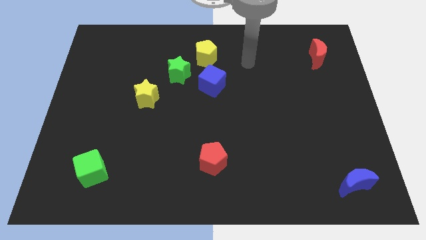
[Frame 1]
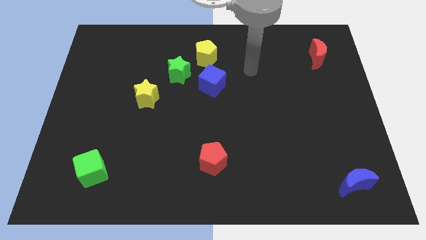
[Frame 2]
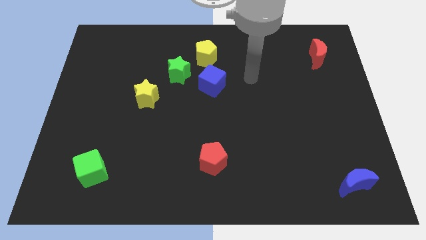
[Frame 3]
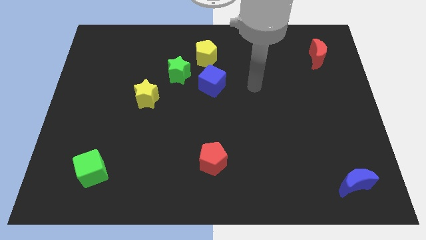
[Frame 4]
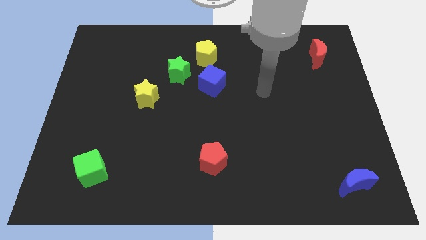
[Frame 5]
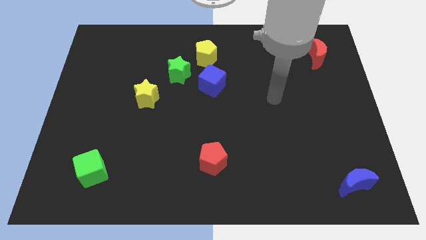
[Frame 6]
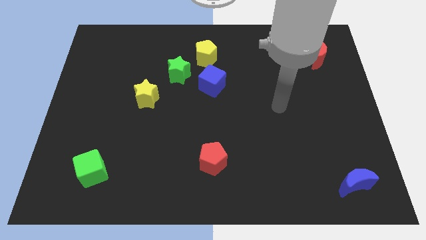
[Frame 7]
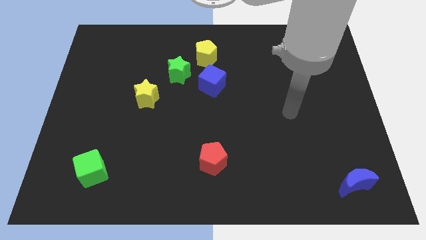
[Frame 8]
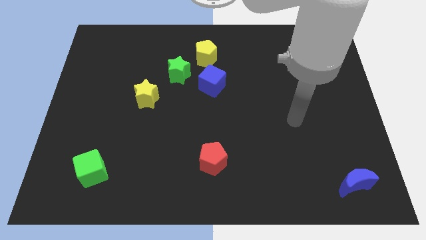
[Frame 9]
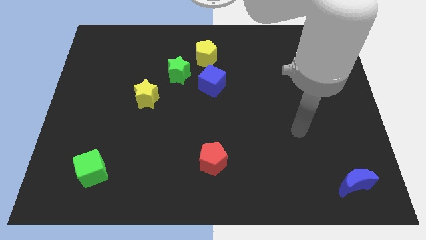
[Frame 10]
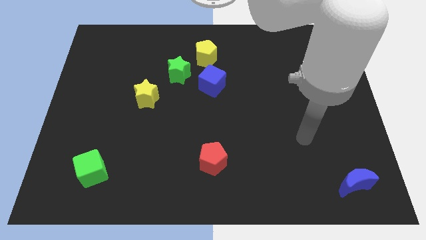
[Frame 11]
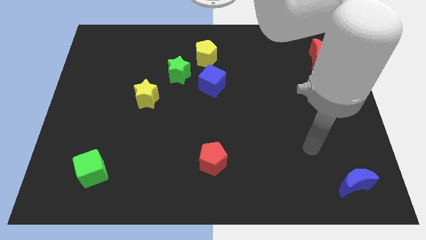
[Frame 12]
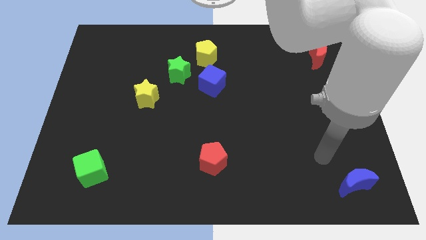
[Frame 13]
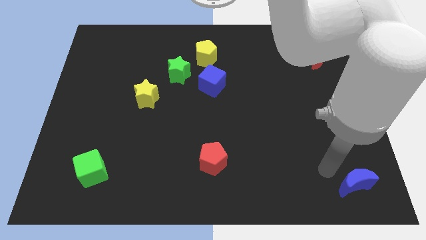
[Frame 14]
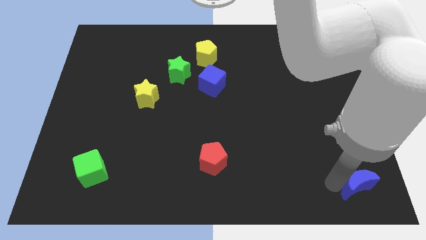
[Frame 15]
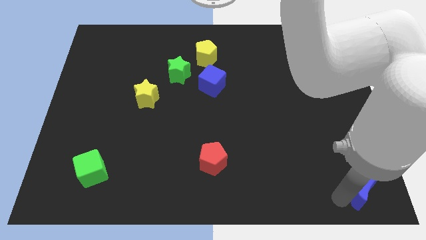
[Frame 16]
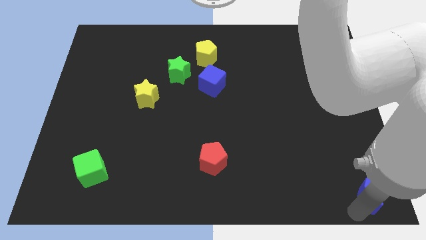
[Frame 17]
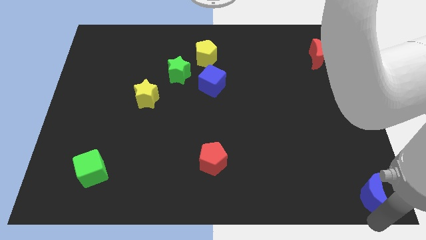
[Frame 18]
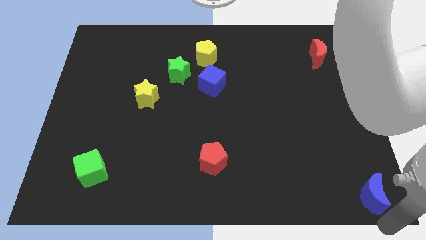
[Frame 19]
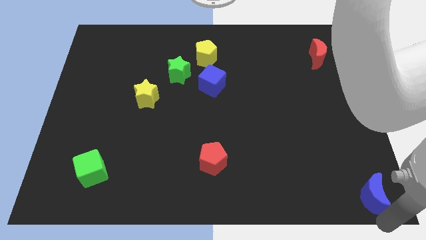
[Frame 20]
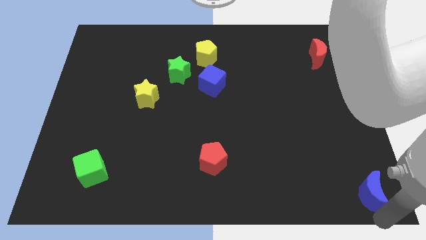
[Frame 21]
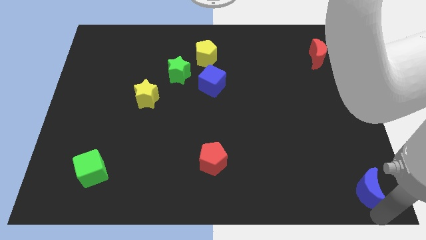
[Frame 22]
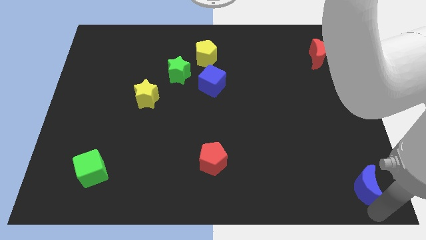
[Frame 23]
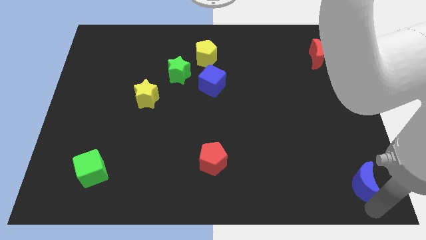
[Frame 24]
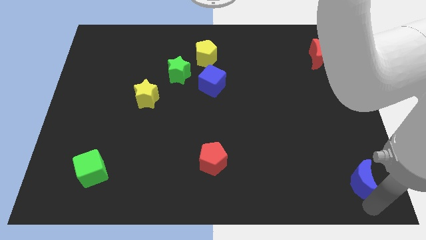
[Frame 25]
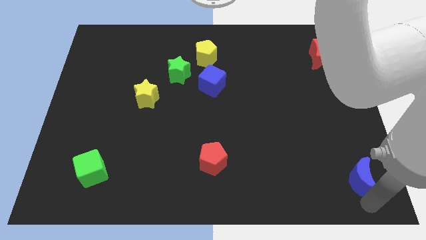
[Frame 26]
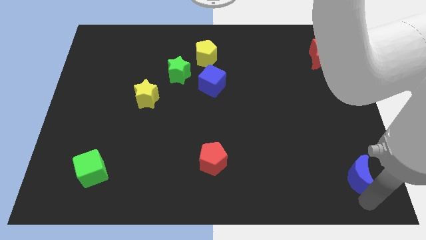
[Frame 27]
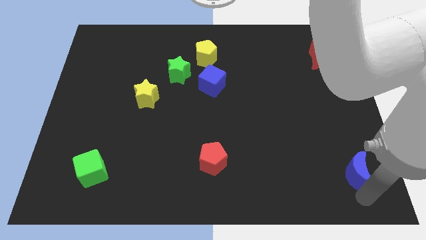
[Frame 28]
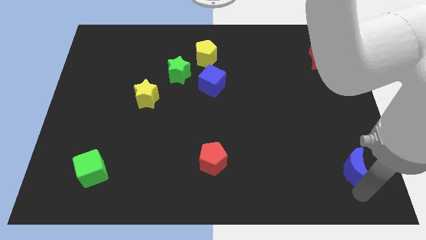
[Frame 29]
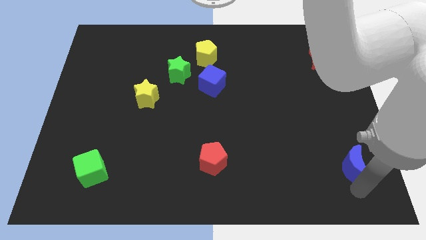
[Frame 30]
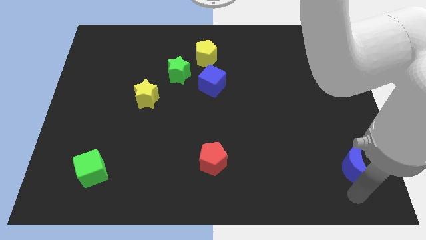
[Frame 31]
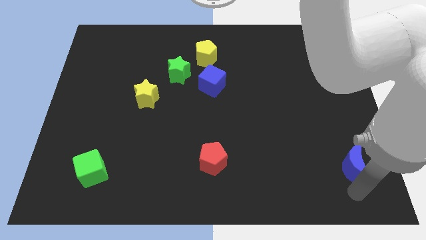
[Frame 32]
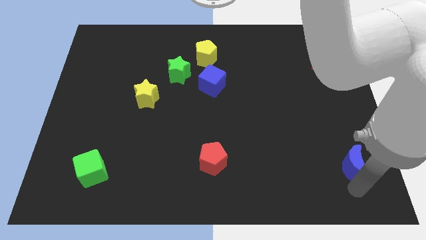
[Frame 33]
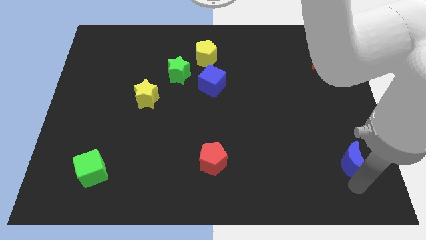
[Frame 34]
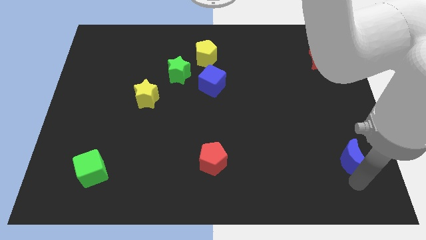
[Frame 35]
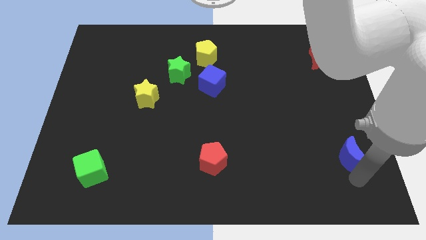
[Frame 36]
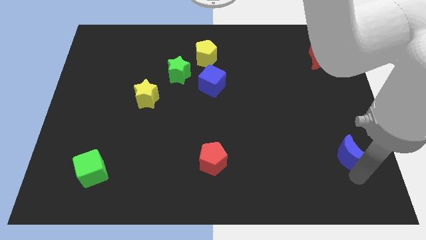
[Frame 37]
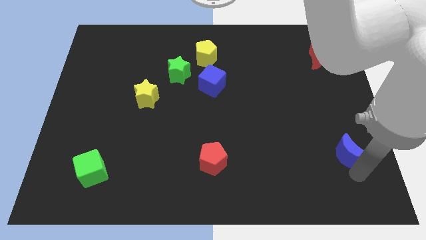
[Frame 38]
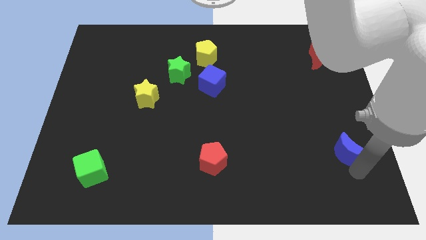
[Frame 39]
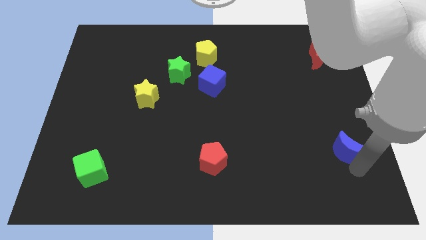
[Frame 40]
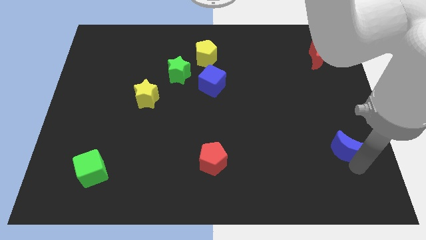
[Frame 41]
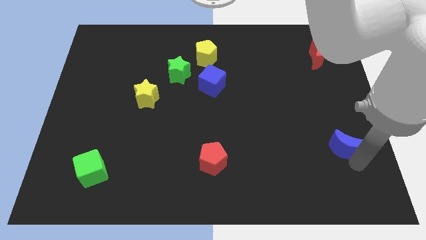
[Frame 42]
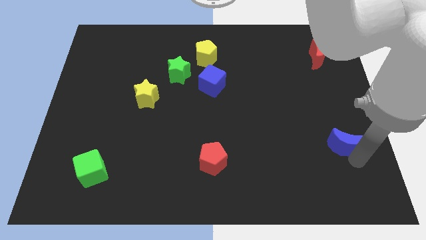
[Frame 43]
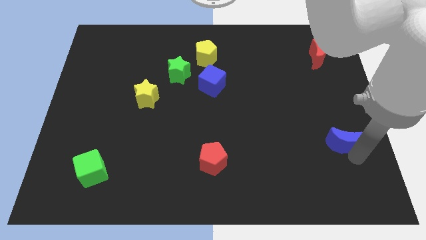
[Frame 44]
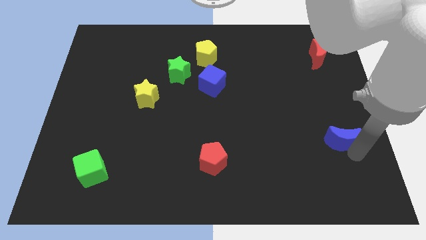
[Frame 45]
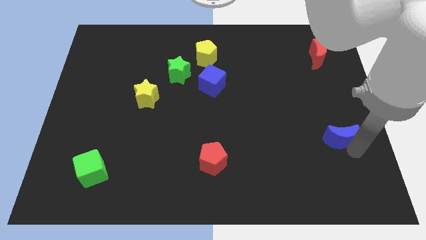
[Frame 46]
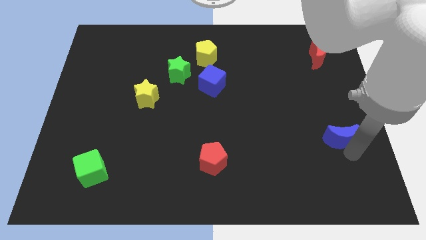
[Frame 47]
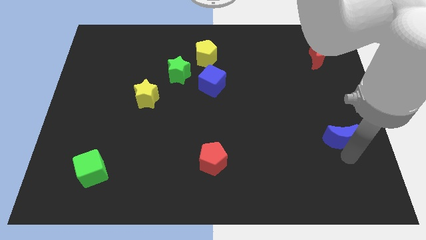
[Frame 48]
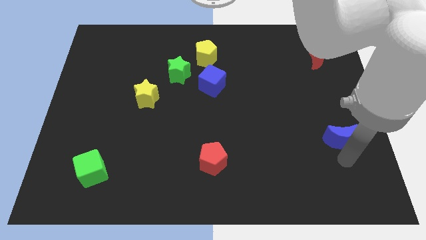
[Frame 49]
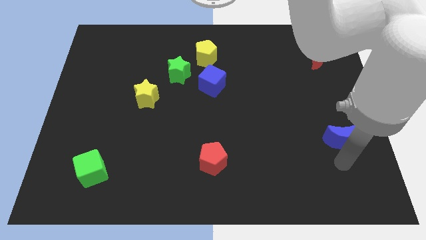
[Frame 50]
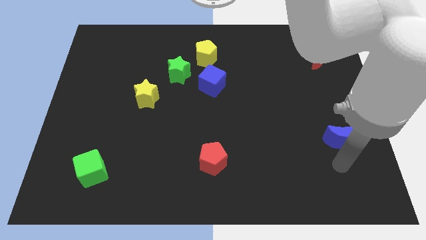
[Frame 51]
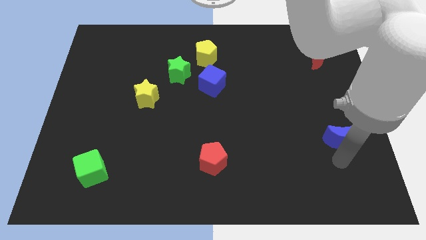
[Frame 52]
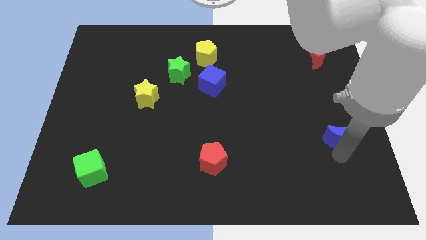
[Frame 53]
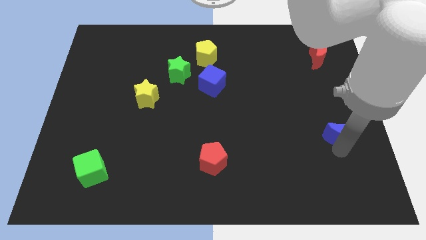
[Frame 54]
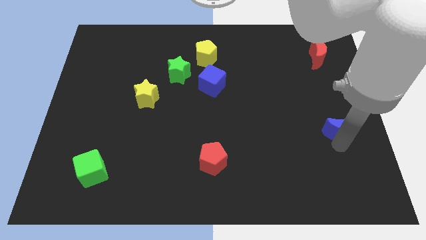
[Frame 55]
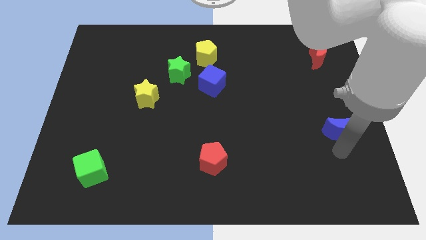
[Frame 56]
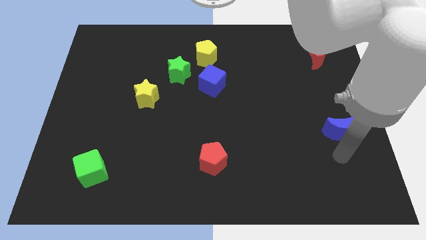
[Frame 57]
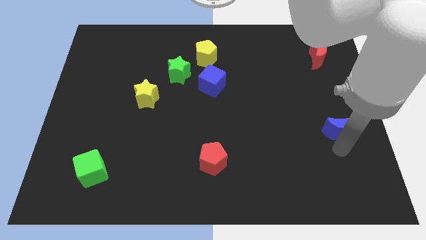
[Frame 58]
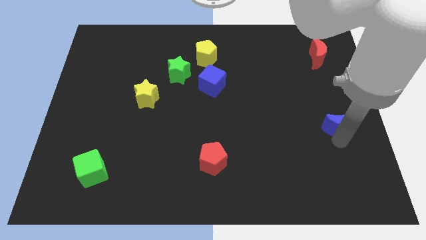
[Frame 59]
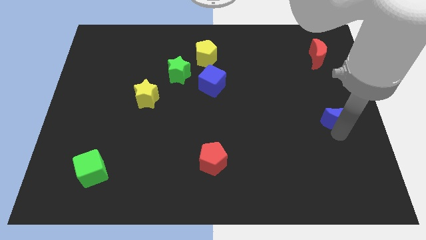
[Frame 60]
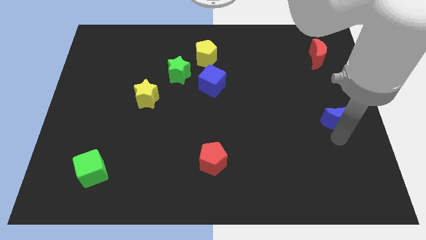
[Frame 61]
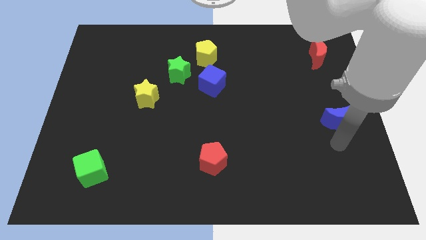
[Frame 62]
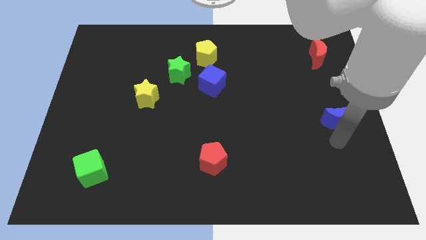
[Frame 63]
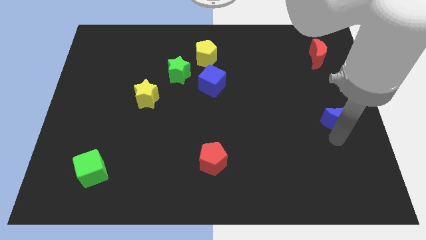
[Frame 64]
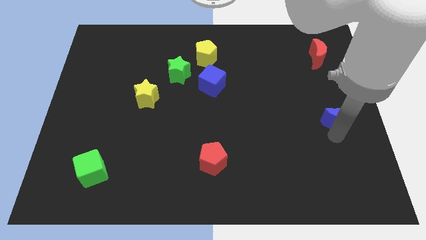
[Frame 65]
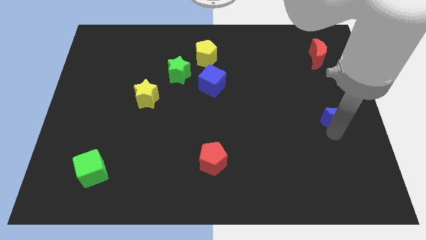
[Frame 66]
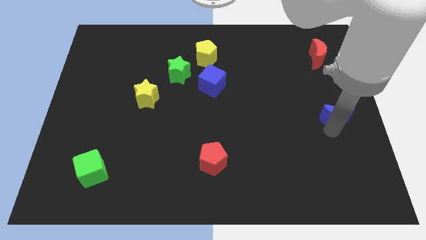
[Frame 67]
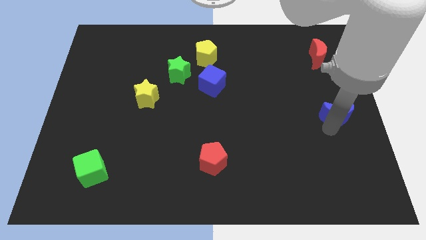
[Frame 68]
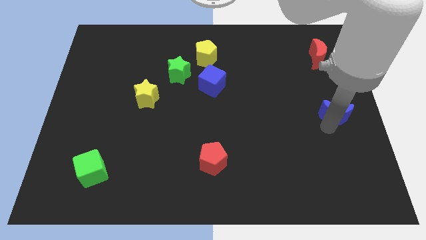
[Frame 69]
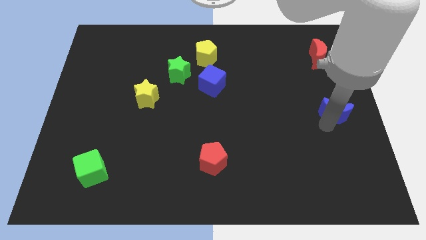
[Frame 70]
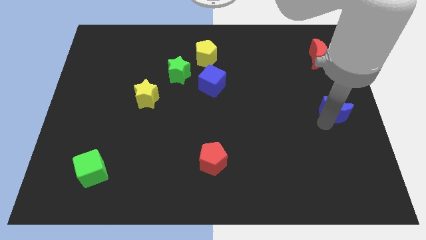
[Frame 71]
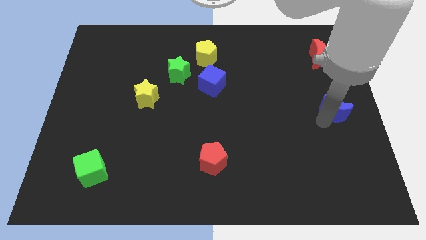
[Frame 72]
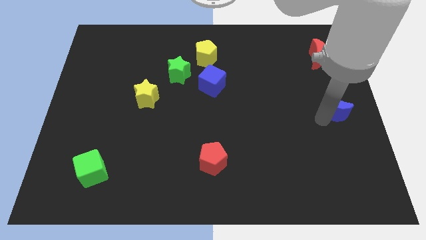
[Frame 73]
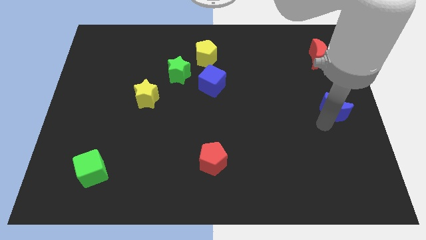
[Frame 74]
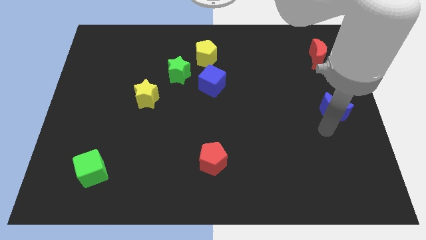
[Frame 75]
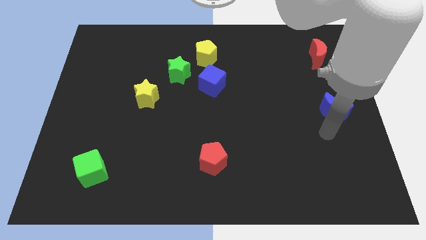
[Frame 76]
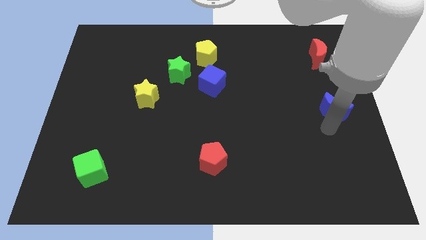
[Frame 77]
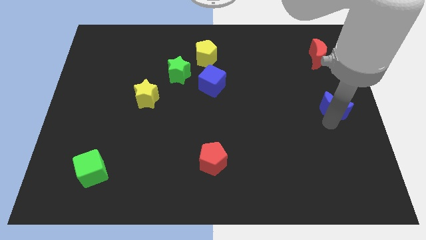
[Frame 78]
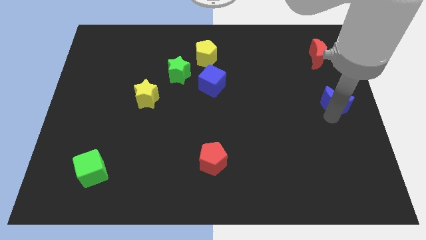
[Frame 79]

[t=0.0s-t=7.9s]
push the blue moon upwards

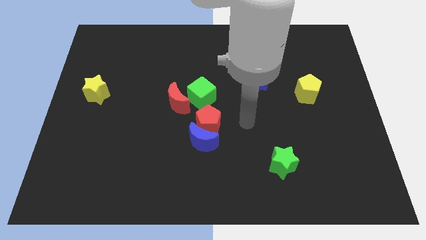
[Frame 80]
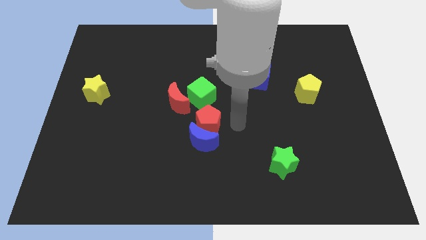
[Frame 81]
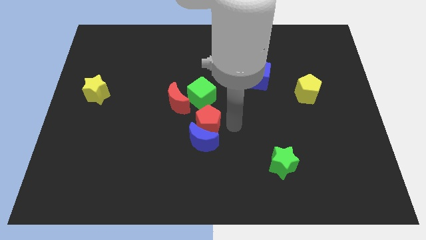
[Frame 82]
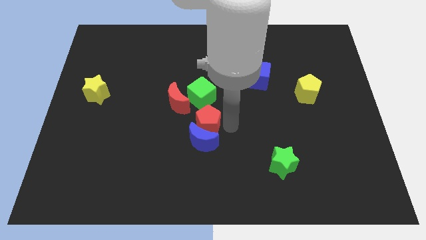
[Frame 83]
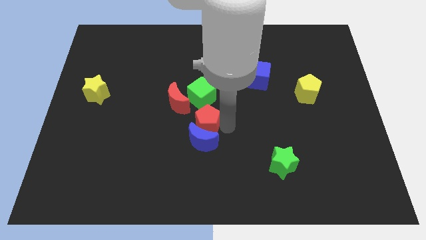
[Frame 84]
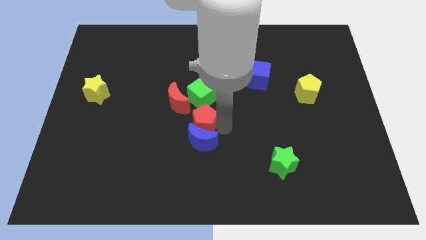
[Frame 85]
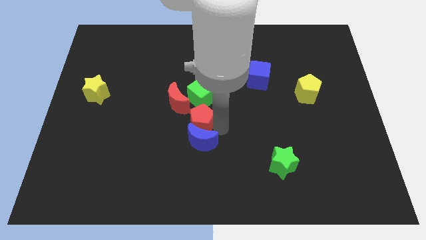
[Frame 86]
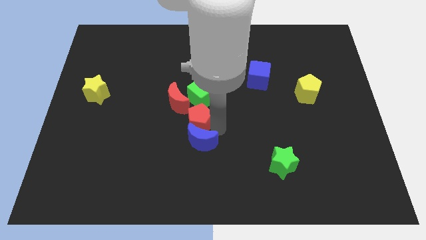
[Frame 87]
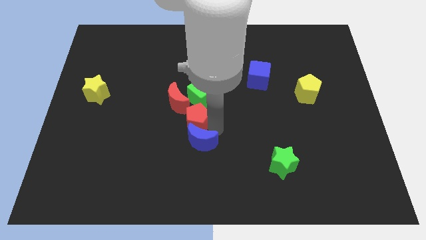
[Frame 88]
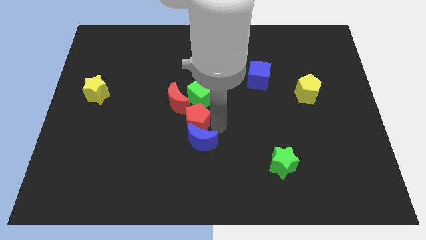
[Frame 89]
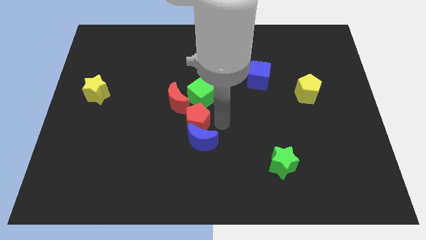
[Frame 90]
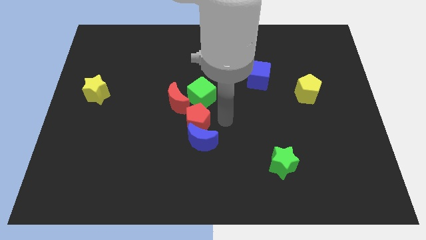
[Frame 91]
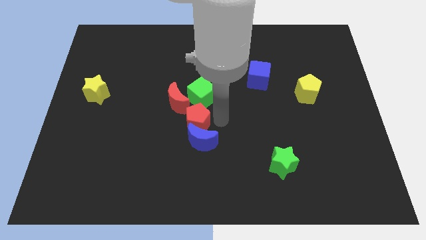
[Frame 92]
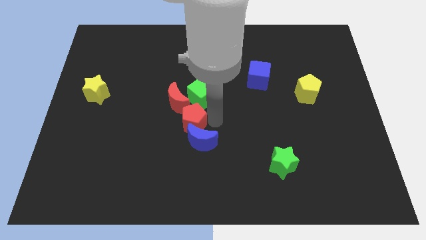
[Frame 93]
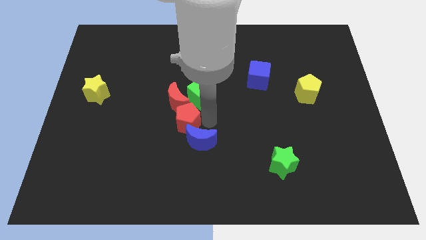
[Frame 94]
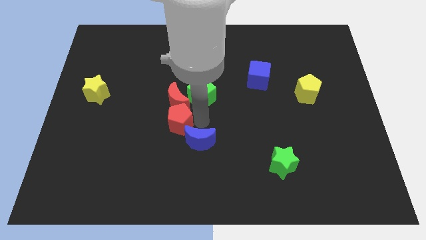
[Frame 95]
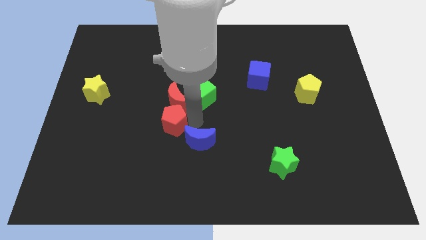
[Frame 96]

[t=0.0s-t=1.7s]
move the red pentagon a little left
